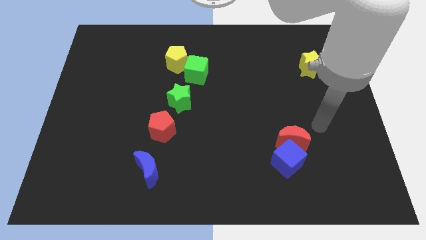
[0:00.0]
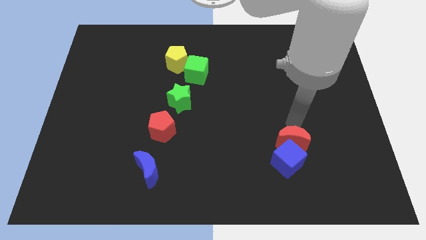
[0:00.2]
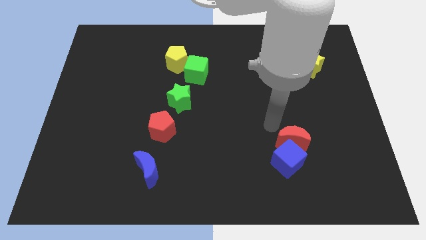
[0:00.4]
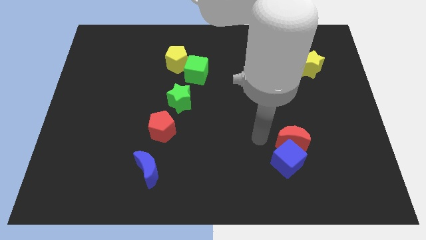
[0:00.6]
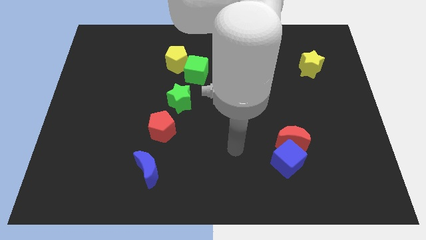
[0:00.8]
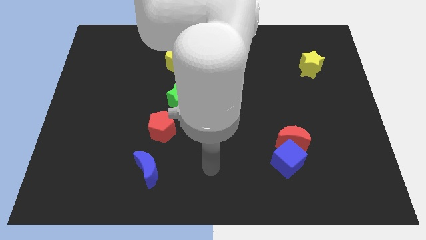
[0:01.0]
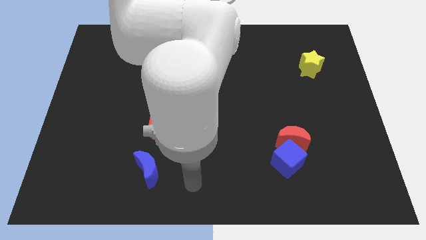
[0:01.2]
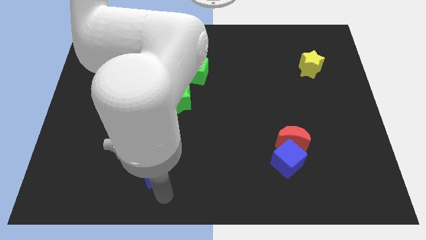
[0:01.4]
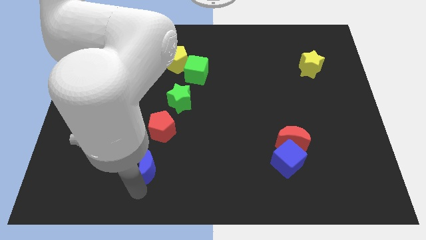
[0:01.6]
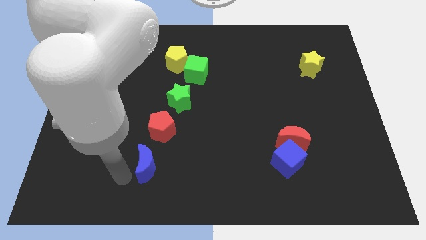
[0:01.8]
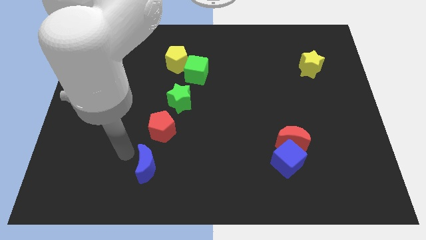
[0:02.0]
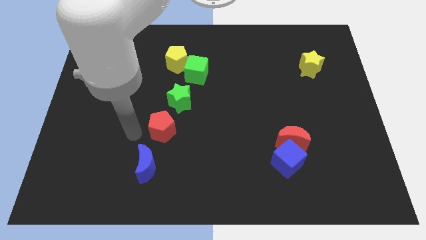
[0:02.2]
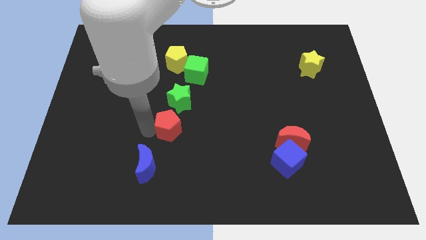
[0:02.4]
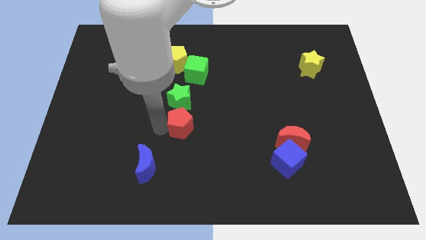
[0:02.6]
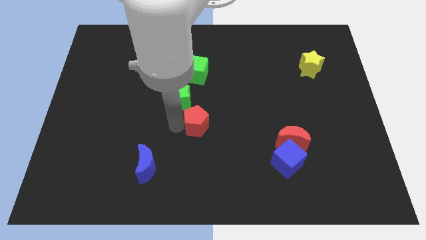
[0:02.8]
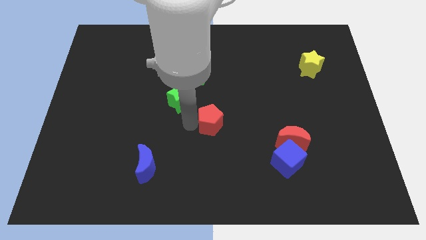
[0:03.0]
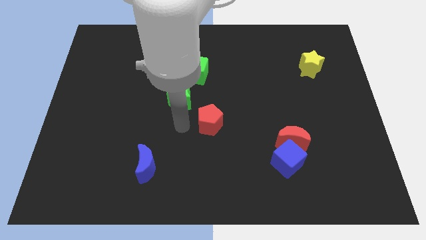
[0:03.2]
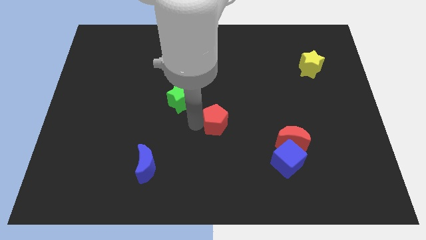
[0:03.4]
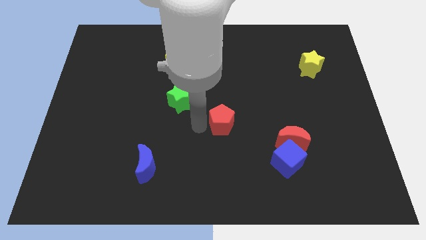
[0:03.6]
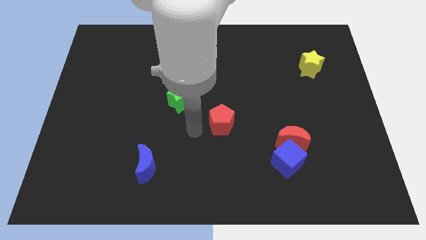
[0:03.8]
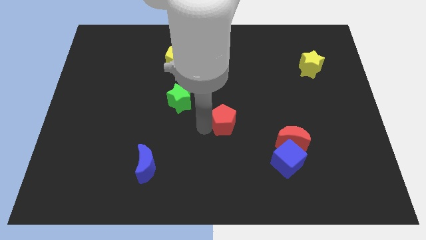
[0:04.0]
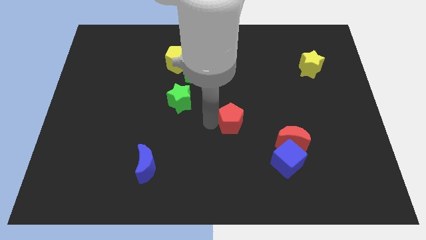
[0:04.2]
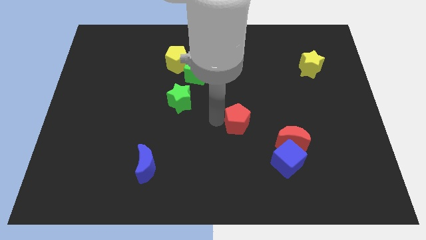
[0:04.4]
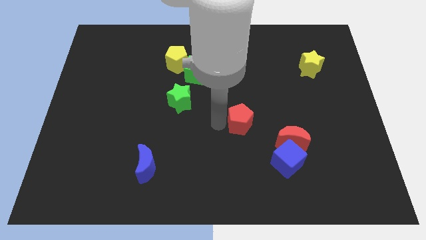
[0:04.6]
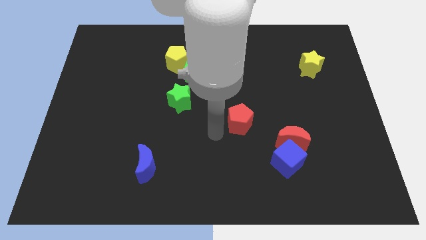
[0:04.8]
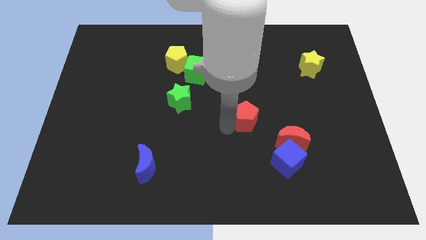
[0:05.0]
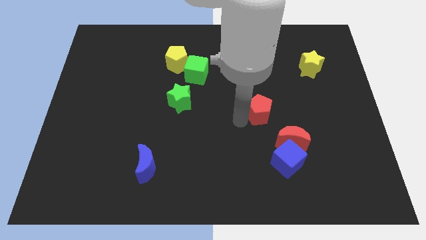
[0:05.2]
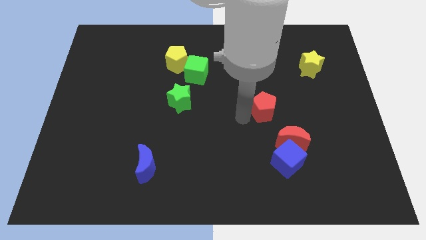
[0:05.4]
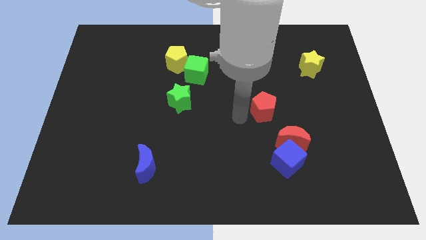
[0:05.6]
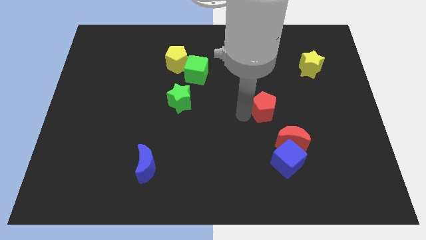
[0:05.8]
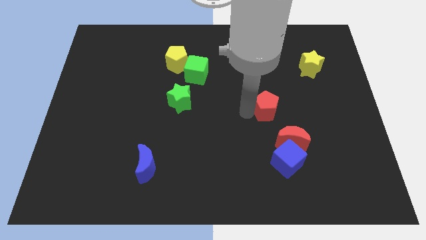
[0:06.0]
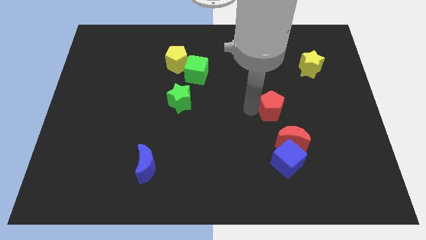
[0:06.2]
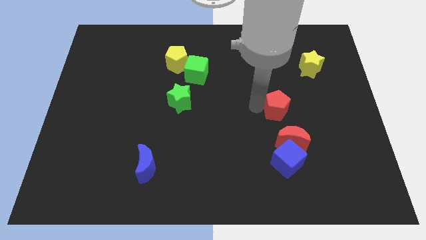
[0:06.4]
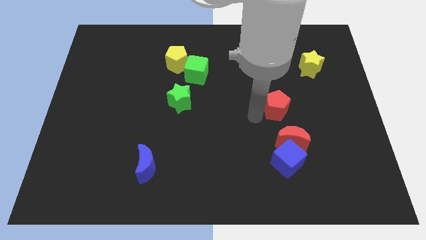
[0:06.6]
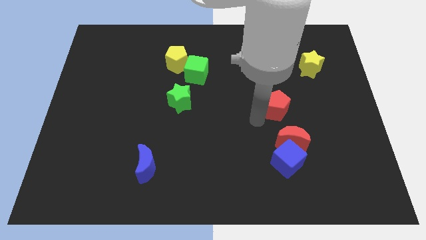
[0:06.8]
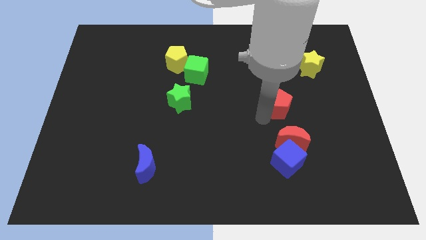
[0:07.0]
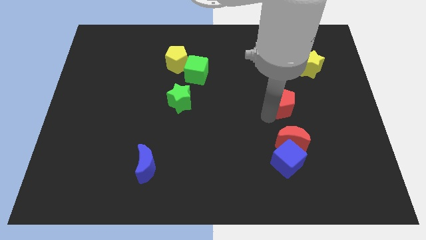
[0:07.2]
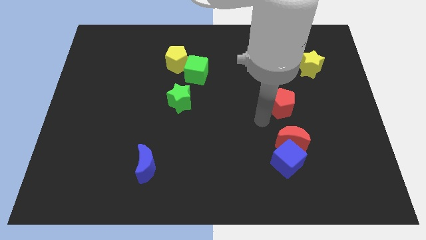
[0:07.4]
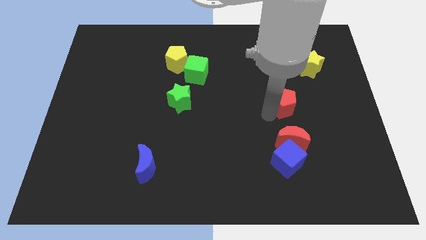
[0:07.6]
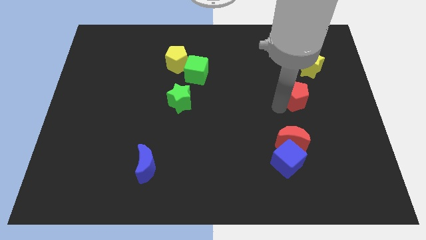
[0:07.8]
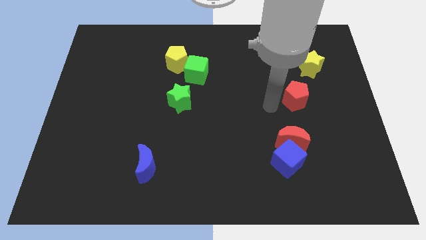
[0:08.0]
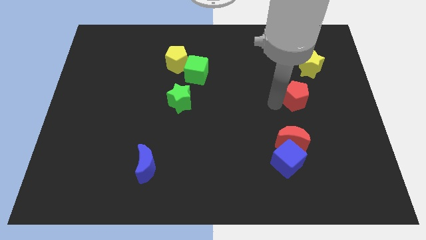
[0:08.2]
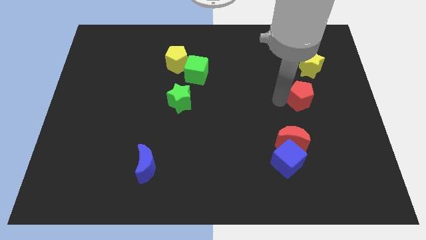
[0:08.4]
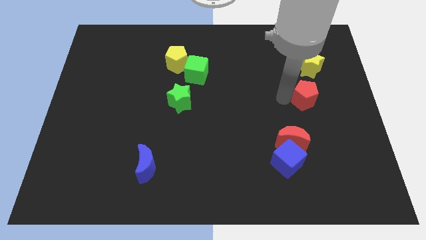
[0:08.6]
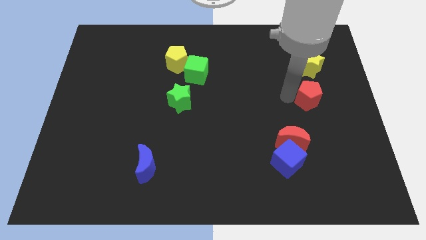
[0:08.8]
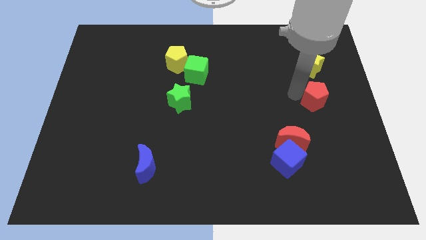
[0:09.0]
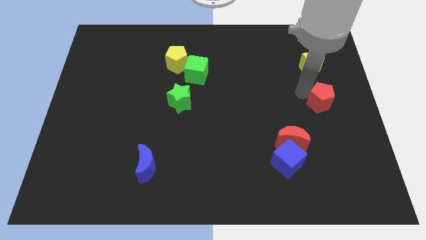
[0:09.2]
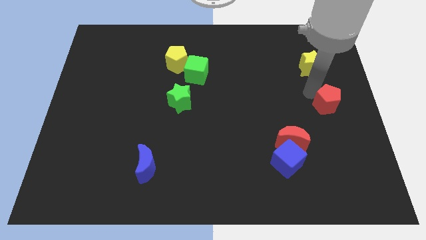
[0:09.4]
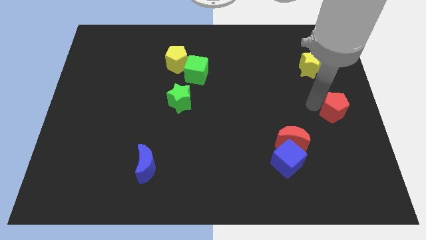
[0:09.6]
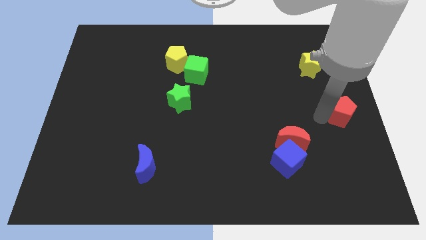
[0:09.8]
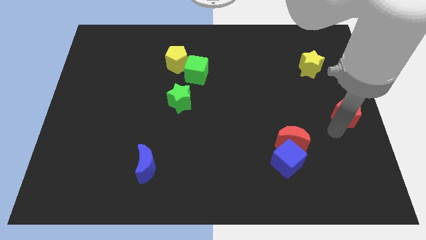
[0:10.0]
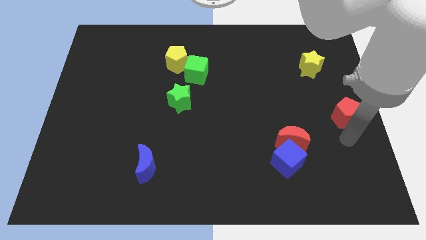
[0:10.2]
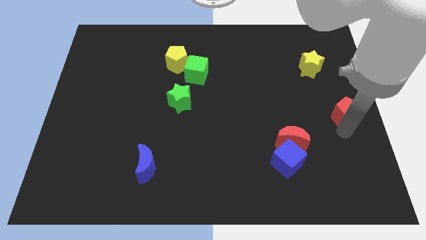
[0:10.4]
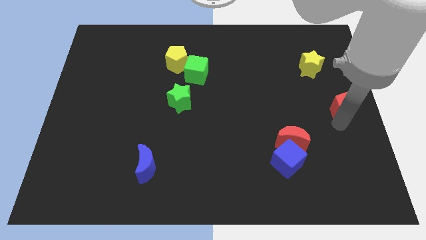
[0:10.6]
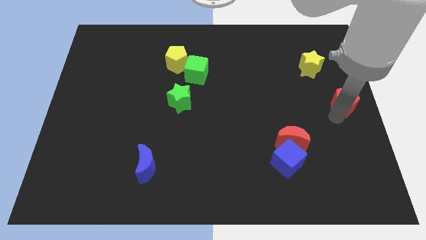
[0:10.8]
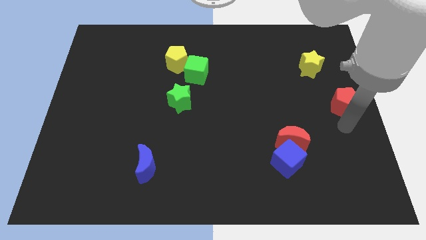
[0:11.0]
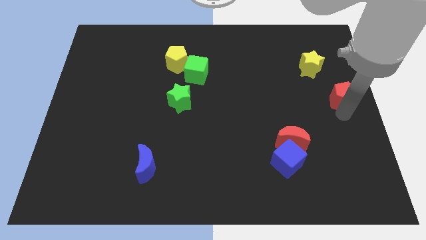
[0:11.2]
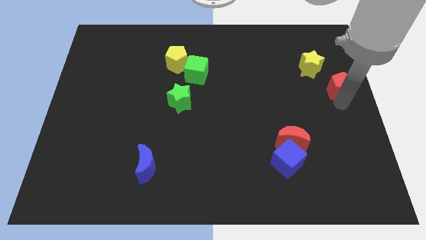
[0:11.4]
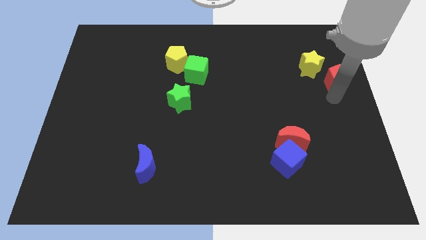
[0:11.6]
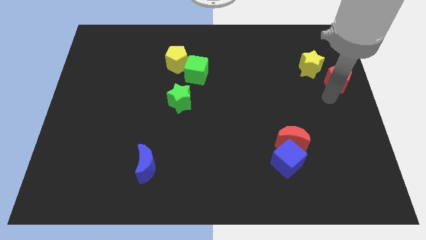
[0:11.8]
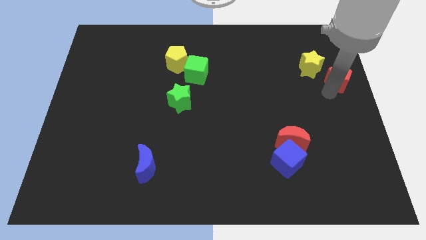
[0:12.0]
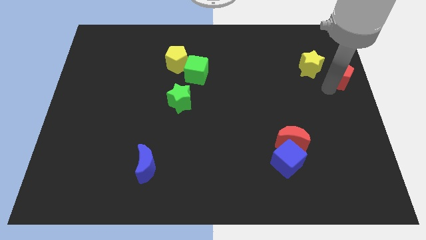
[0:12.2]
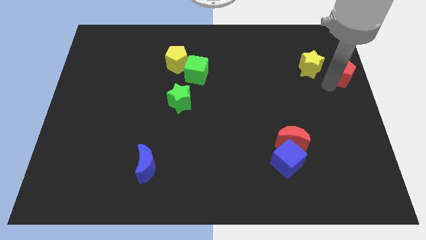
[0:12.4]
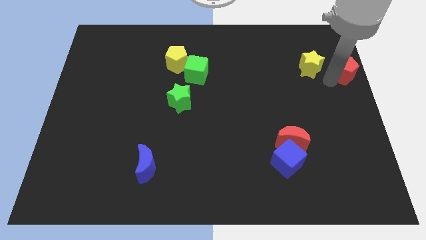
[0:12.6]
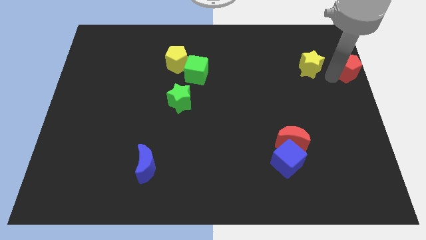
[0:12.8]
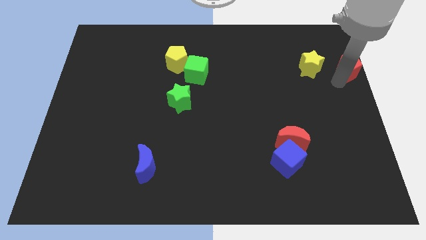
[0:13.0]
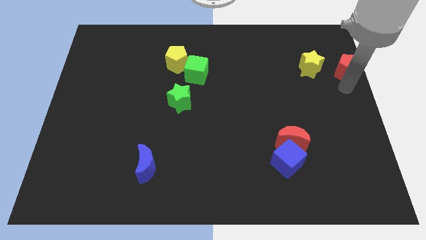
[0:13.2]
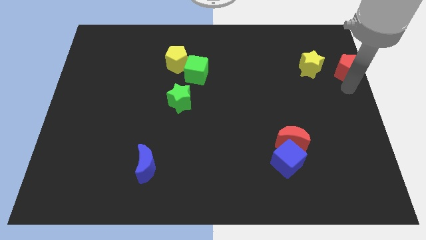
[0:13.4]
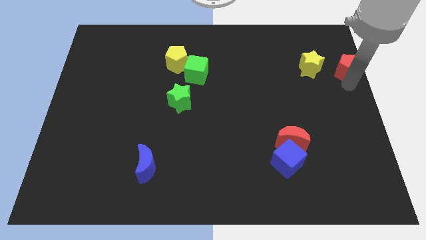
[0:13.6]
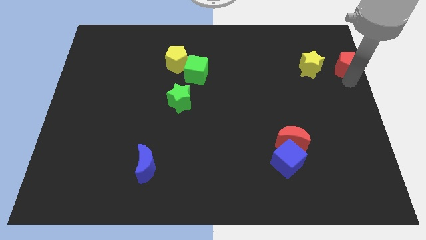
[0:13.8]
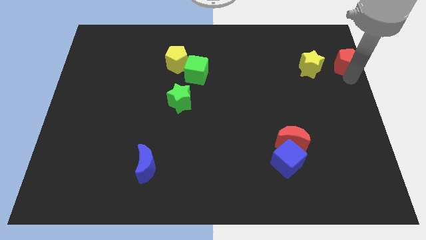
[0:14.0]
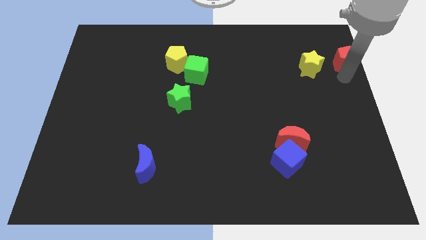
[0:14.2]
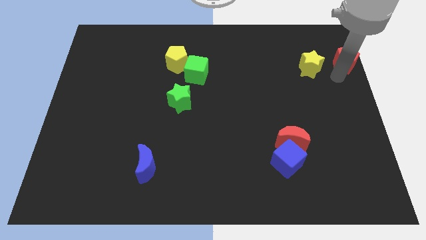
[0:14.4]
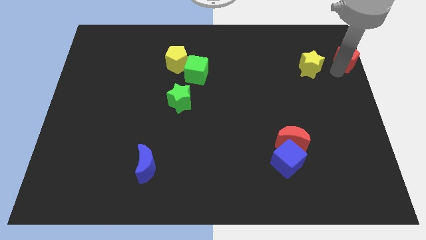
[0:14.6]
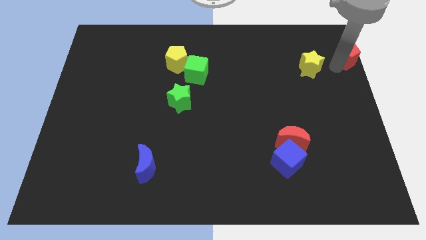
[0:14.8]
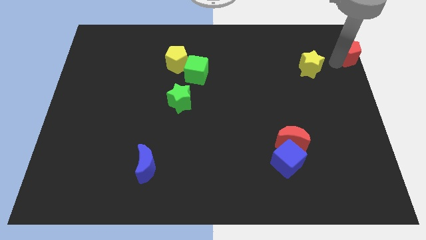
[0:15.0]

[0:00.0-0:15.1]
slide the red pentagon to the top right of the board

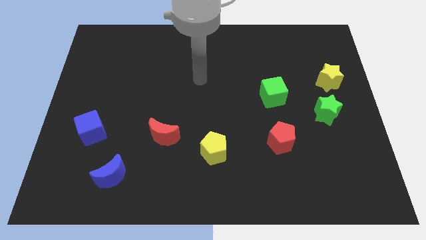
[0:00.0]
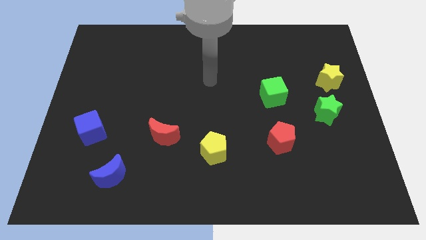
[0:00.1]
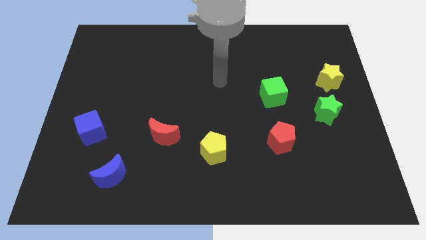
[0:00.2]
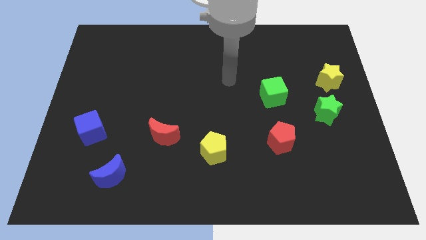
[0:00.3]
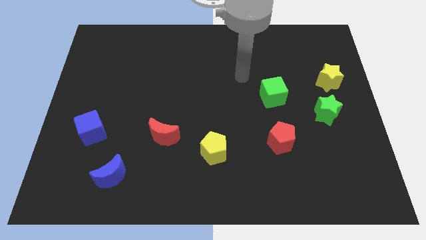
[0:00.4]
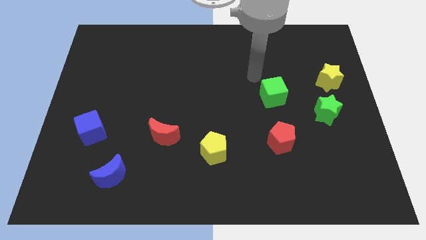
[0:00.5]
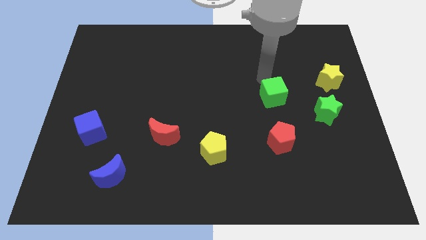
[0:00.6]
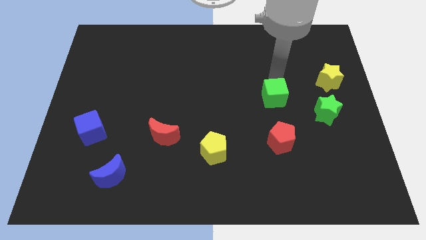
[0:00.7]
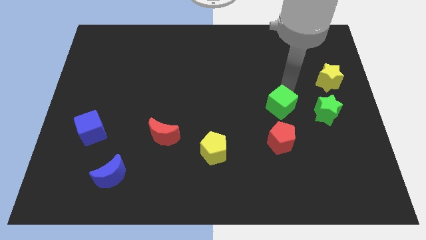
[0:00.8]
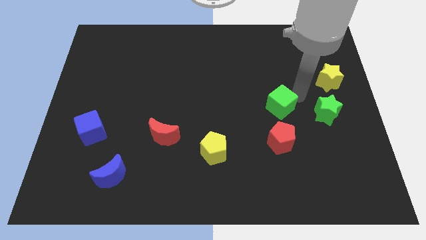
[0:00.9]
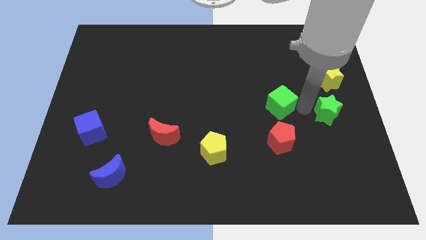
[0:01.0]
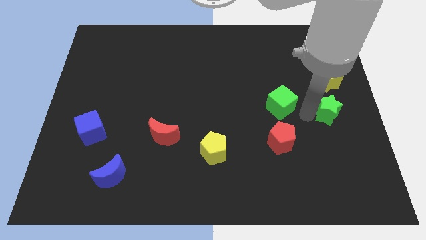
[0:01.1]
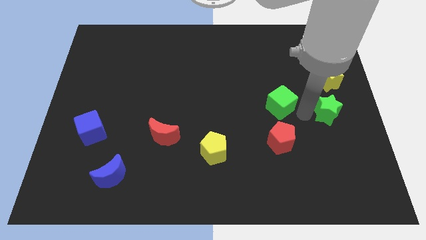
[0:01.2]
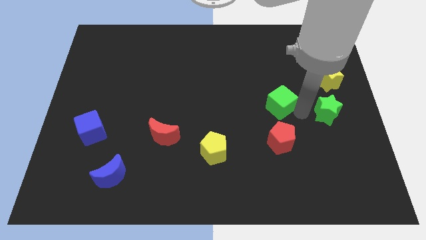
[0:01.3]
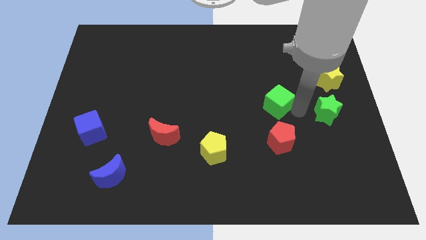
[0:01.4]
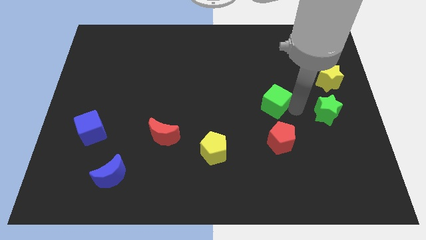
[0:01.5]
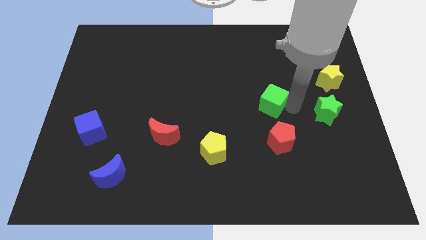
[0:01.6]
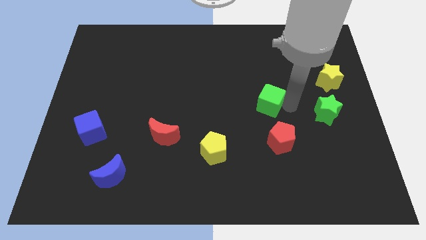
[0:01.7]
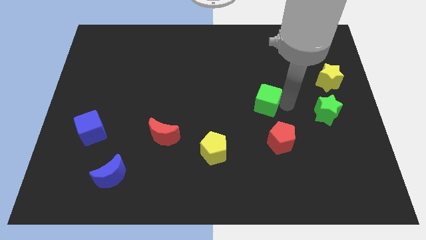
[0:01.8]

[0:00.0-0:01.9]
push the green cube to the center of the board
